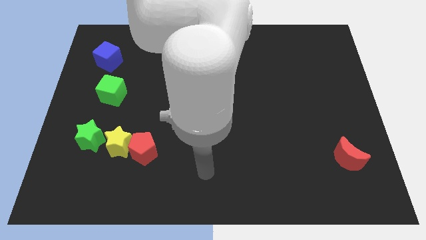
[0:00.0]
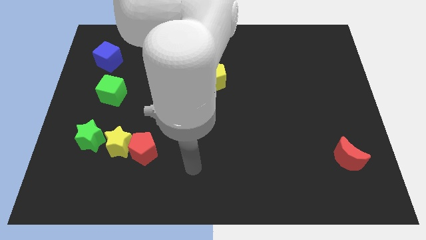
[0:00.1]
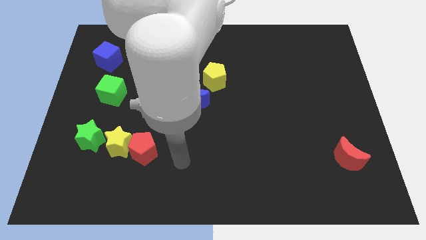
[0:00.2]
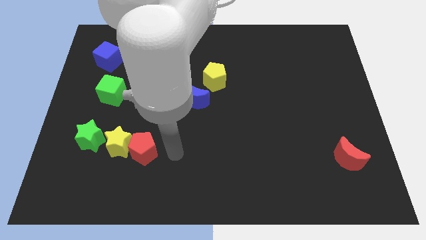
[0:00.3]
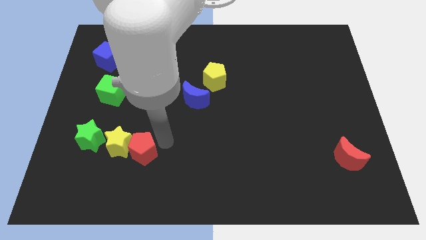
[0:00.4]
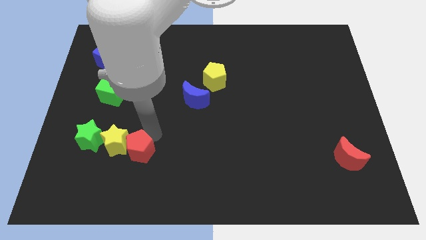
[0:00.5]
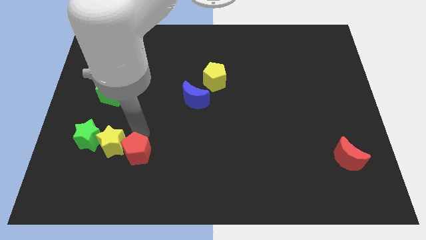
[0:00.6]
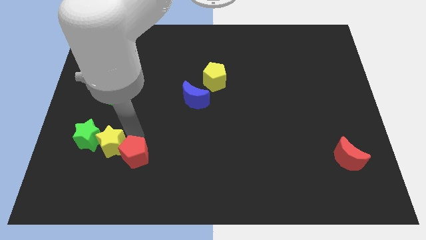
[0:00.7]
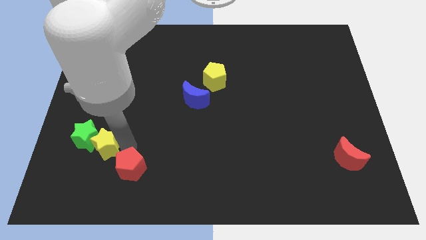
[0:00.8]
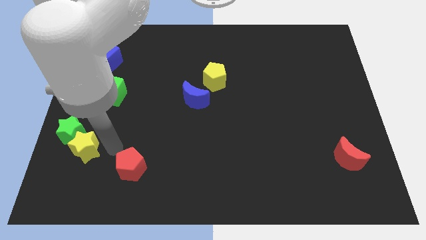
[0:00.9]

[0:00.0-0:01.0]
pull the red pentagon apart from the yellow star

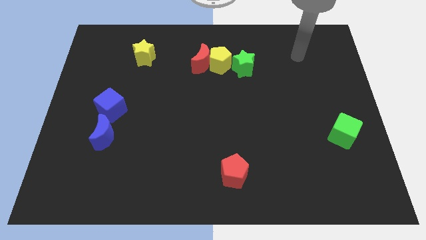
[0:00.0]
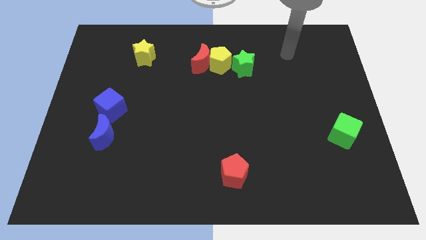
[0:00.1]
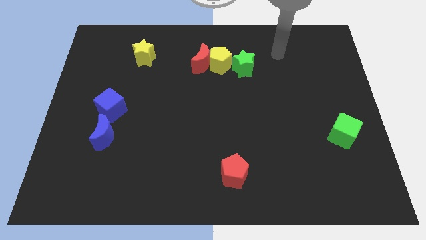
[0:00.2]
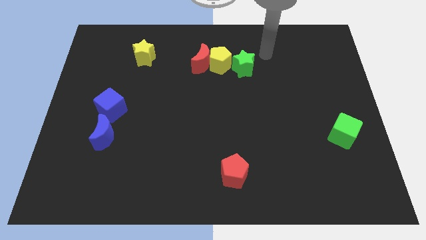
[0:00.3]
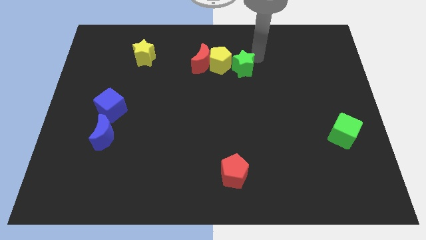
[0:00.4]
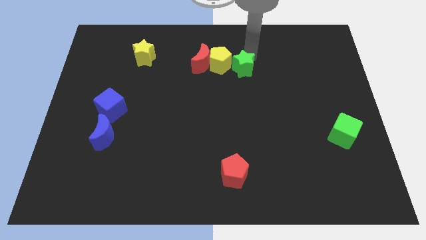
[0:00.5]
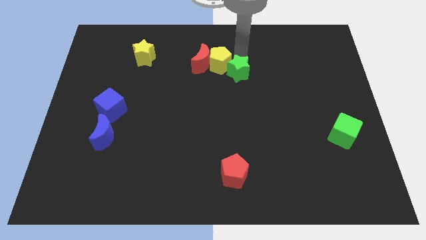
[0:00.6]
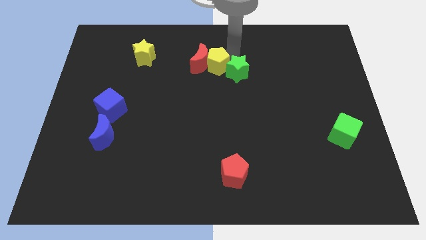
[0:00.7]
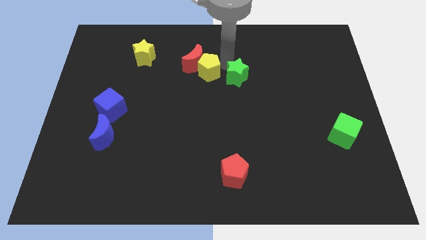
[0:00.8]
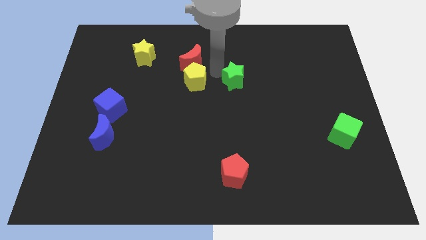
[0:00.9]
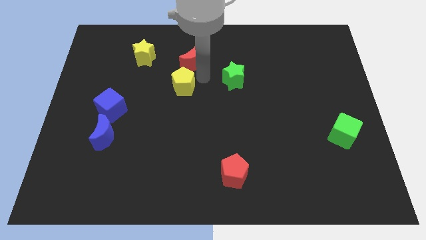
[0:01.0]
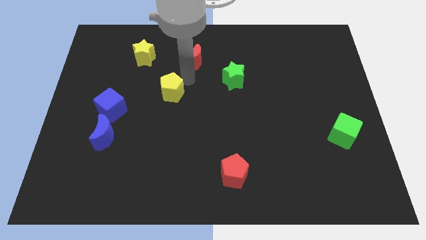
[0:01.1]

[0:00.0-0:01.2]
move the red moon away from the yellow pentagon

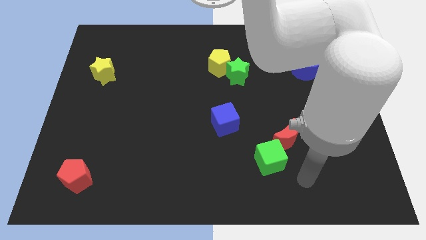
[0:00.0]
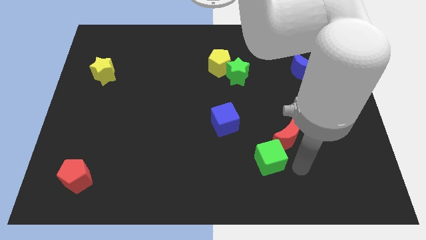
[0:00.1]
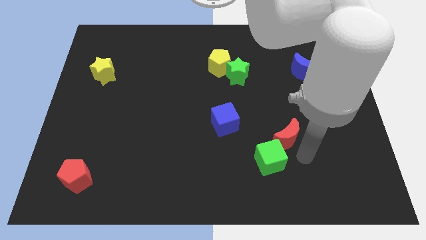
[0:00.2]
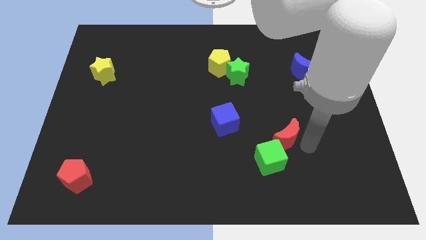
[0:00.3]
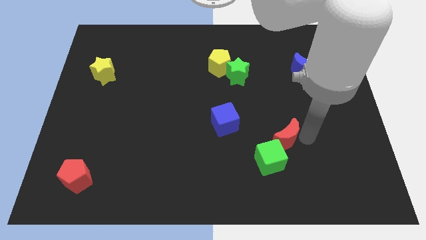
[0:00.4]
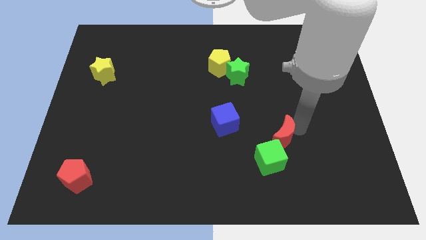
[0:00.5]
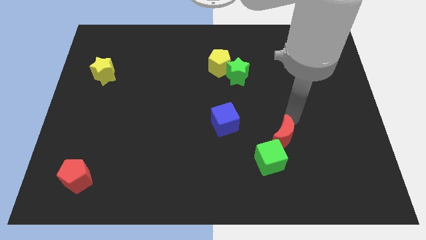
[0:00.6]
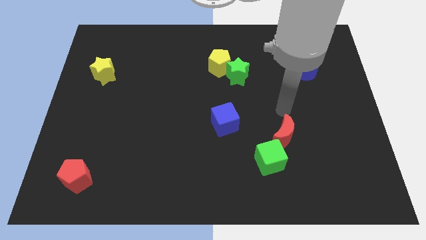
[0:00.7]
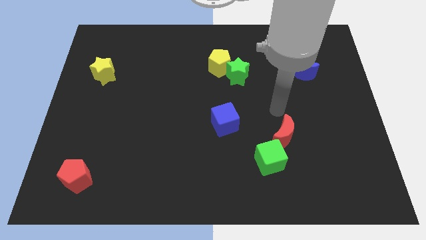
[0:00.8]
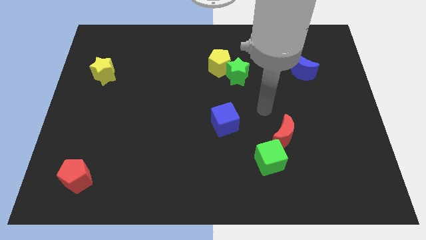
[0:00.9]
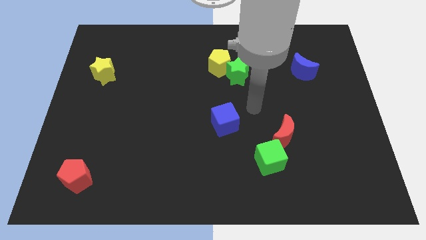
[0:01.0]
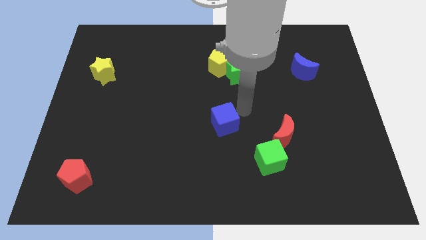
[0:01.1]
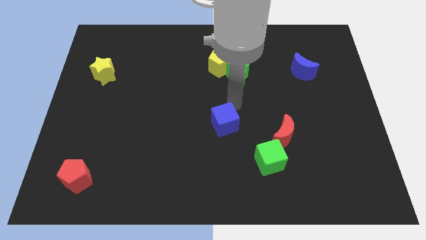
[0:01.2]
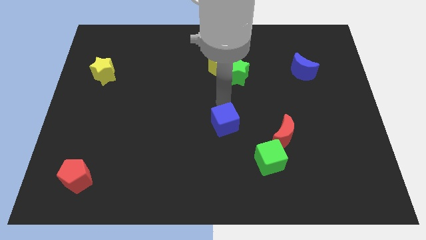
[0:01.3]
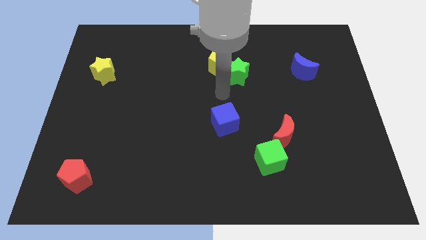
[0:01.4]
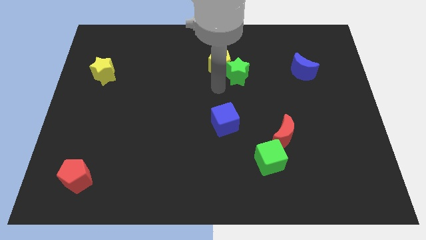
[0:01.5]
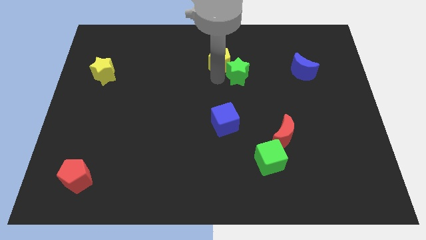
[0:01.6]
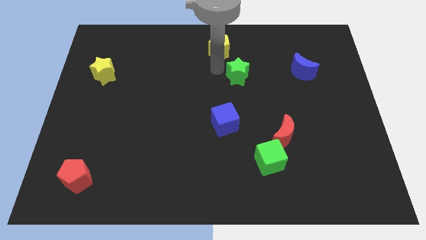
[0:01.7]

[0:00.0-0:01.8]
pull the green star apart from the yellow pentagon

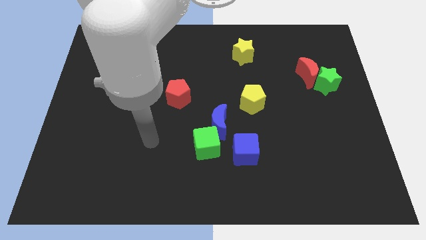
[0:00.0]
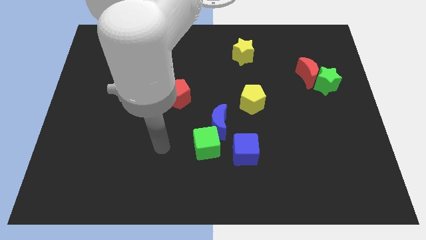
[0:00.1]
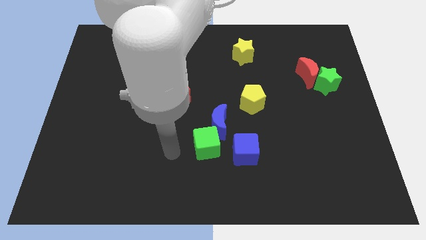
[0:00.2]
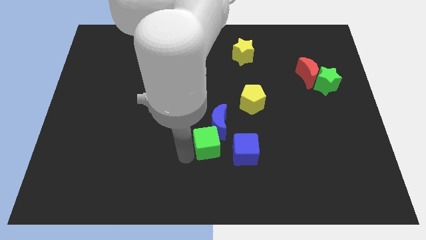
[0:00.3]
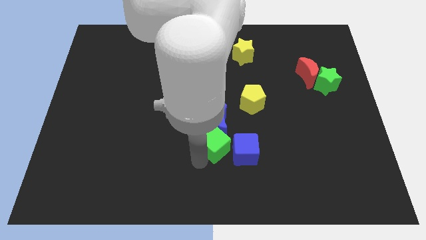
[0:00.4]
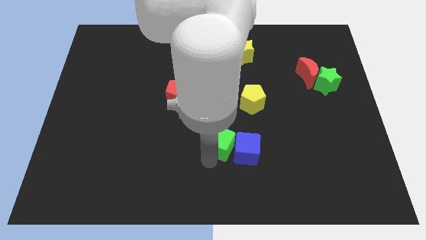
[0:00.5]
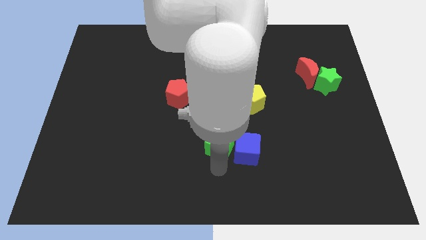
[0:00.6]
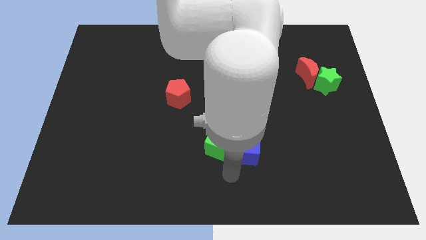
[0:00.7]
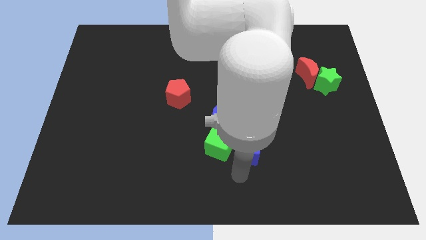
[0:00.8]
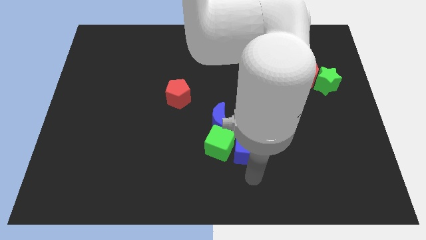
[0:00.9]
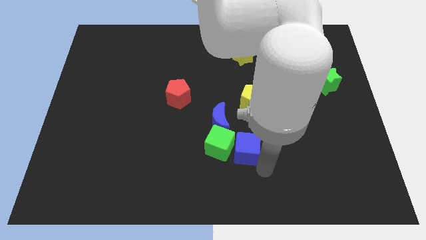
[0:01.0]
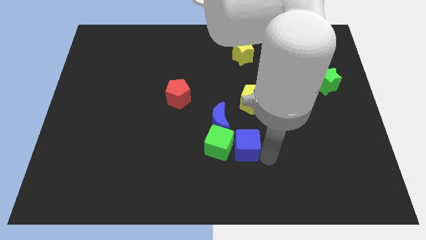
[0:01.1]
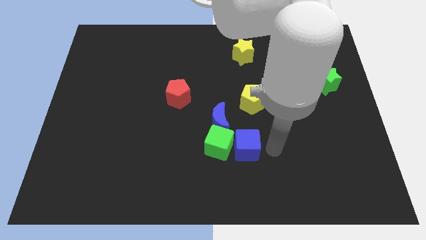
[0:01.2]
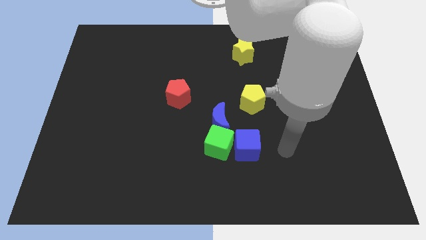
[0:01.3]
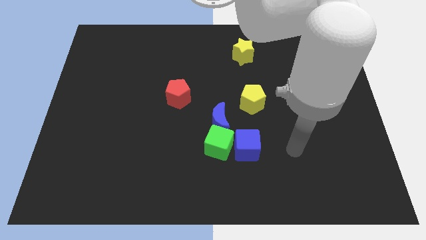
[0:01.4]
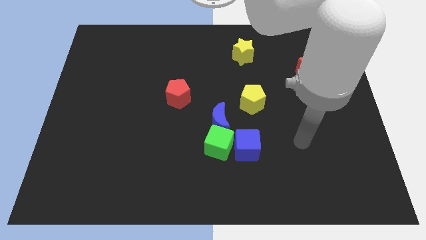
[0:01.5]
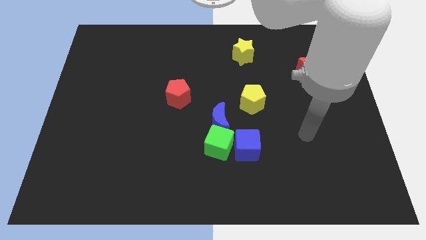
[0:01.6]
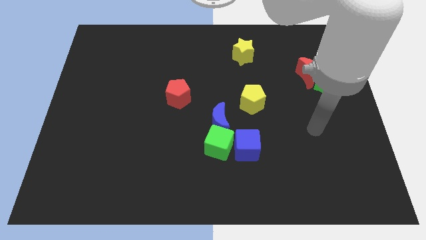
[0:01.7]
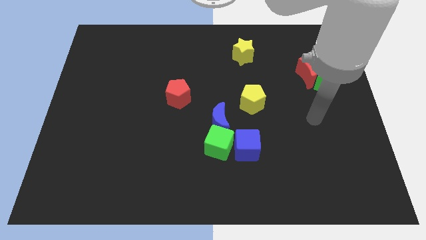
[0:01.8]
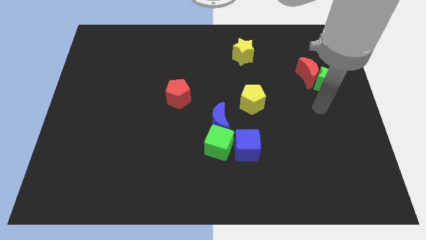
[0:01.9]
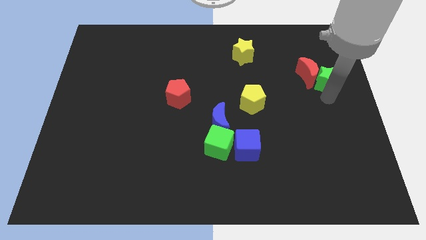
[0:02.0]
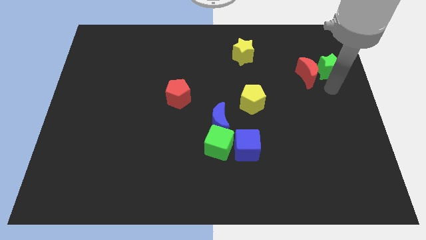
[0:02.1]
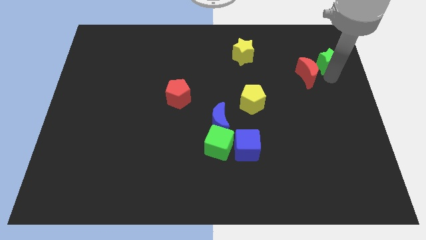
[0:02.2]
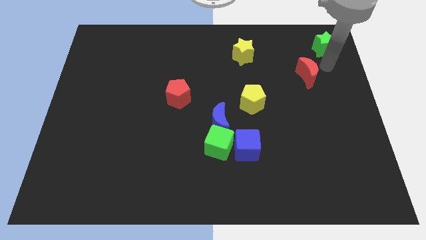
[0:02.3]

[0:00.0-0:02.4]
move the red moon away from the green star

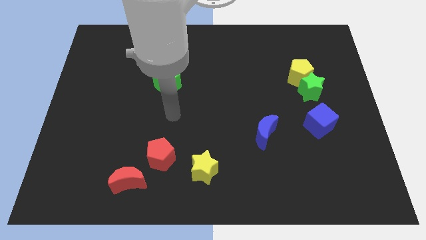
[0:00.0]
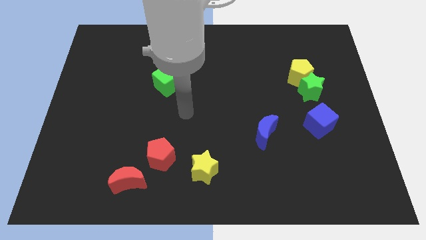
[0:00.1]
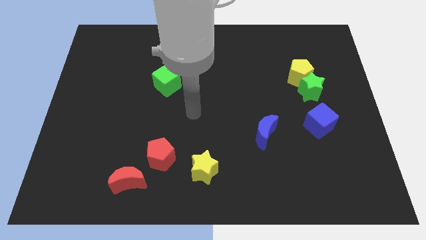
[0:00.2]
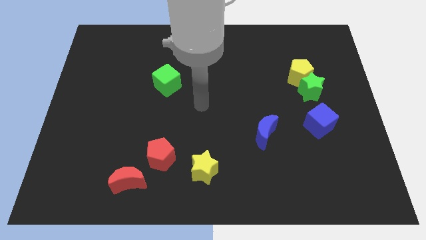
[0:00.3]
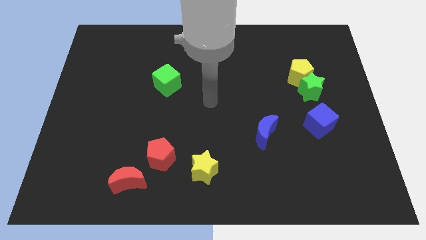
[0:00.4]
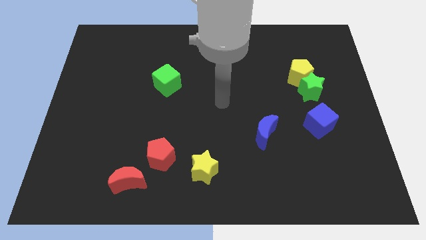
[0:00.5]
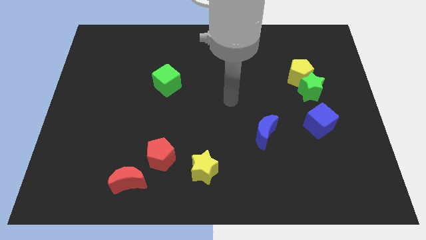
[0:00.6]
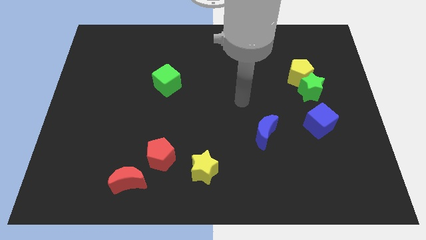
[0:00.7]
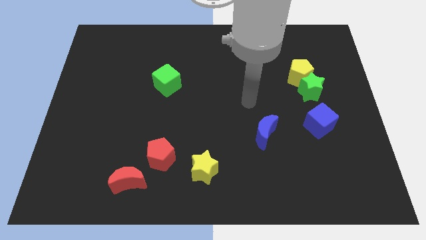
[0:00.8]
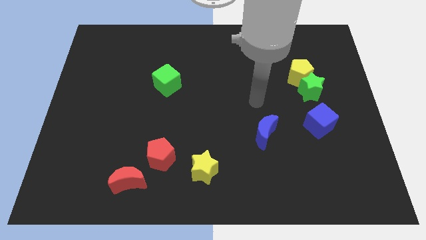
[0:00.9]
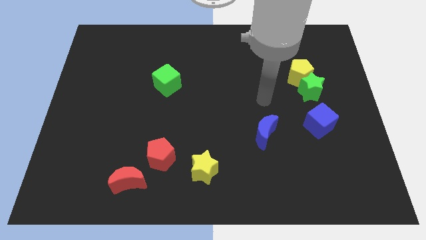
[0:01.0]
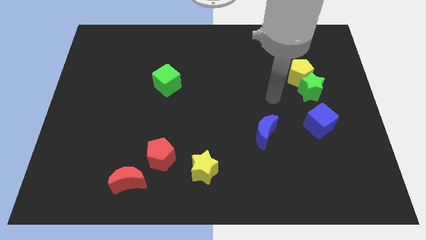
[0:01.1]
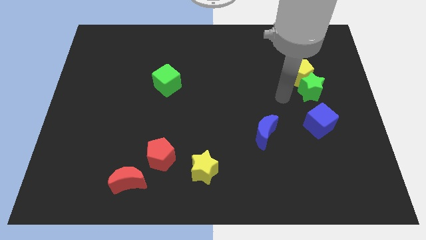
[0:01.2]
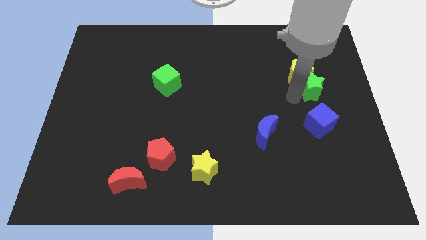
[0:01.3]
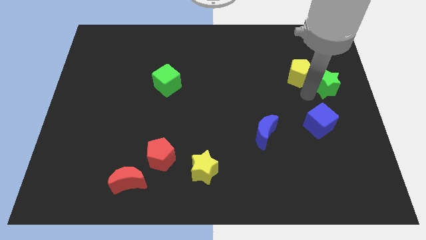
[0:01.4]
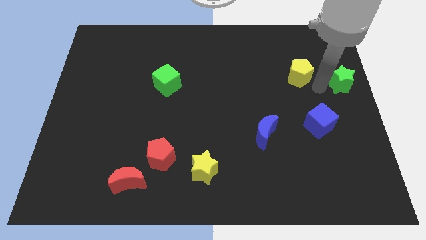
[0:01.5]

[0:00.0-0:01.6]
pull the yellow pentagon apart from the green star

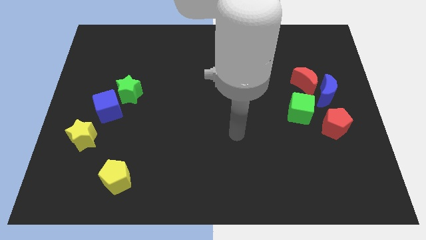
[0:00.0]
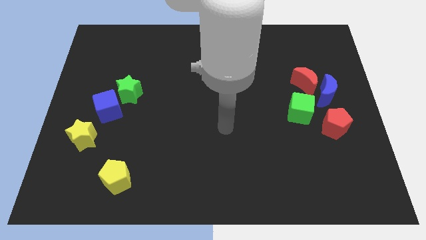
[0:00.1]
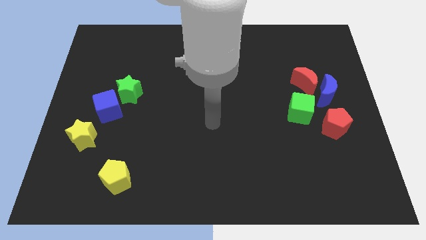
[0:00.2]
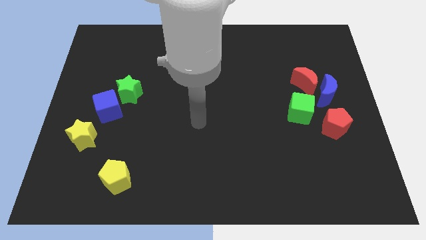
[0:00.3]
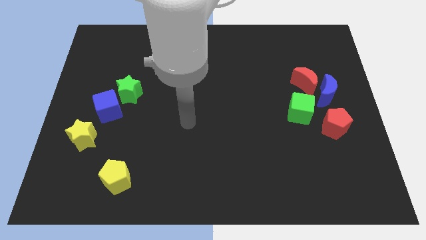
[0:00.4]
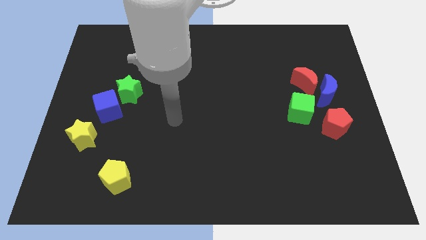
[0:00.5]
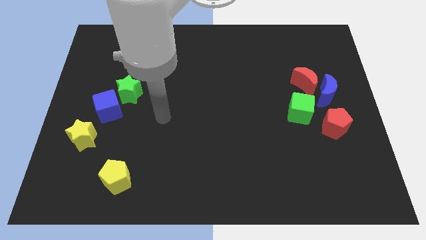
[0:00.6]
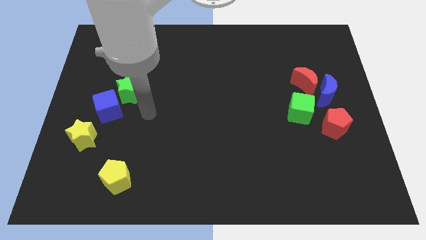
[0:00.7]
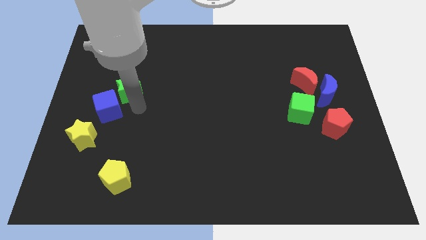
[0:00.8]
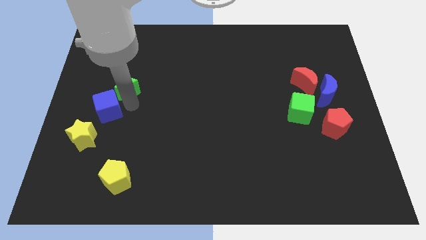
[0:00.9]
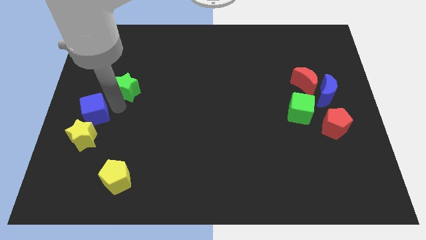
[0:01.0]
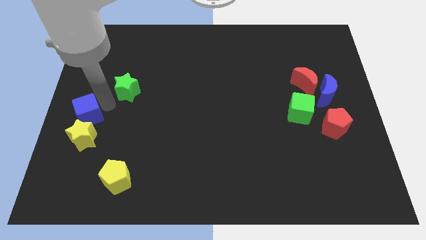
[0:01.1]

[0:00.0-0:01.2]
separate the green star from the blue cube
